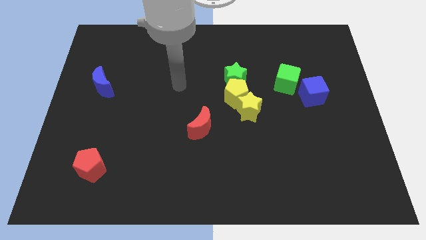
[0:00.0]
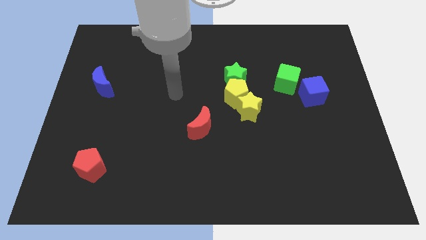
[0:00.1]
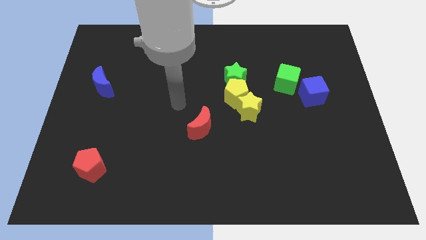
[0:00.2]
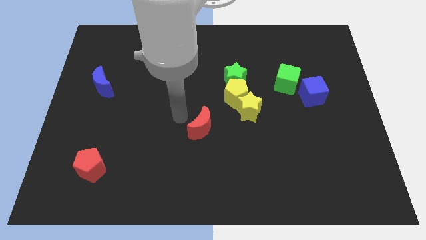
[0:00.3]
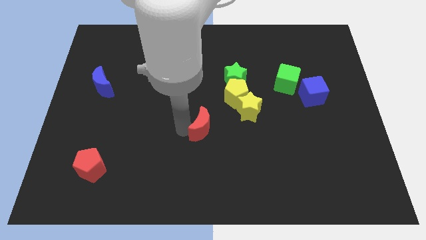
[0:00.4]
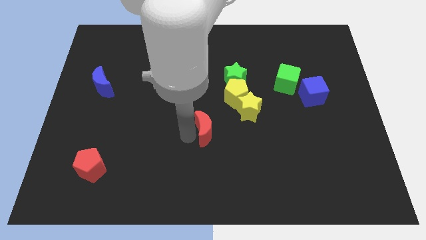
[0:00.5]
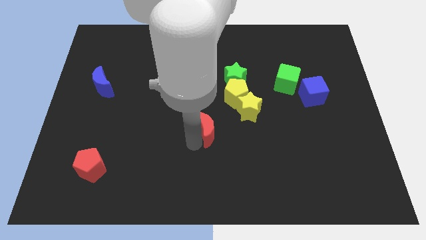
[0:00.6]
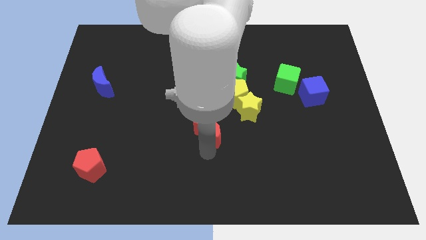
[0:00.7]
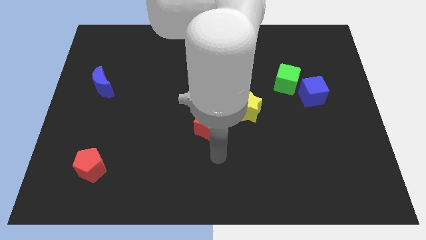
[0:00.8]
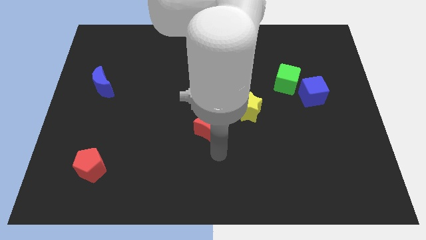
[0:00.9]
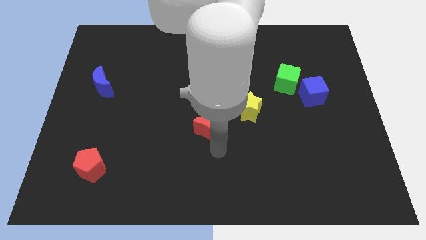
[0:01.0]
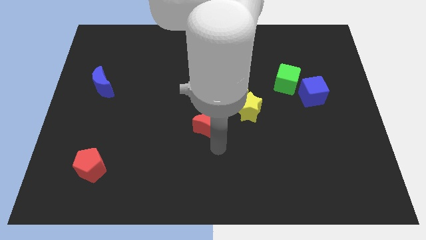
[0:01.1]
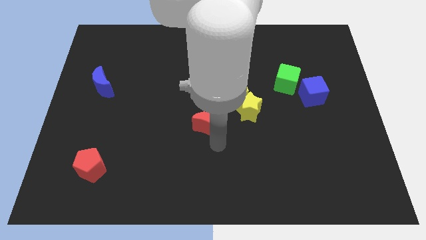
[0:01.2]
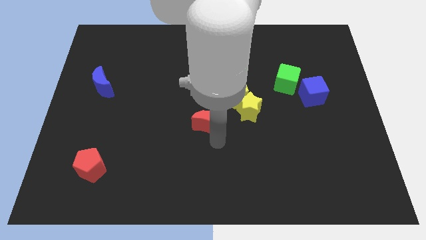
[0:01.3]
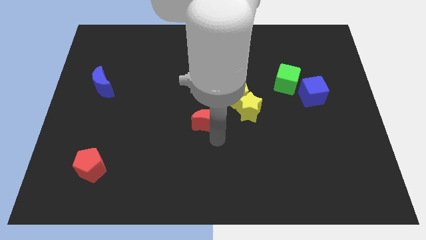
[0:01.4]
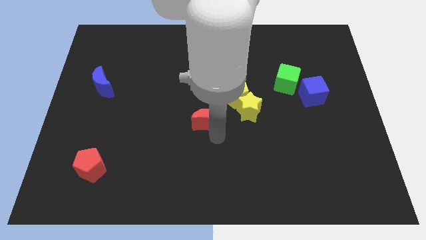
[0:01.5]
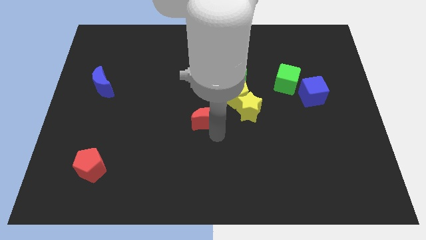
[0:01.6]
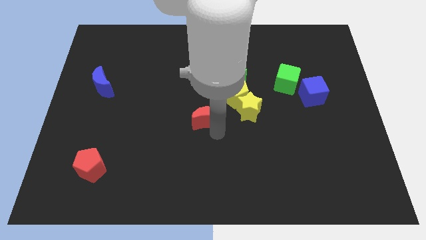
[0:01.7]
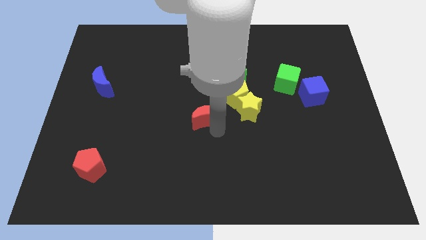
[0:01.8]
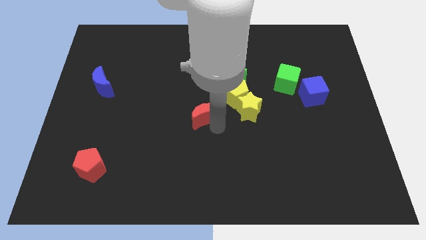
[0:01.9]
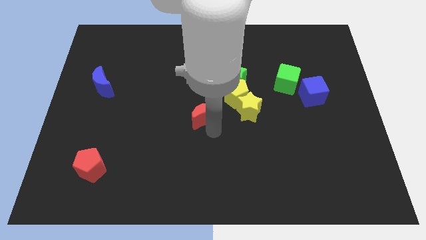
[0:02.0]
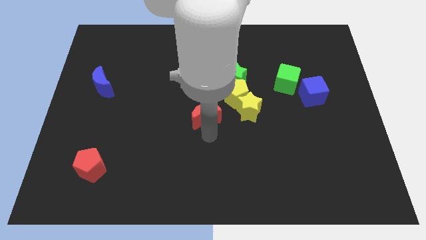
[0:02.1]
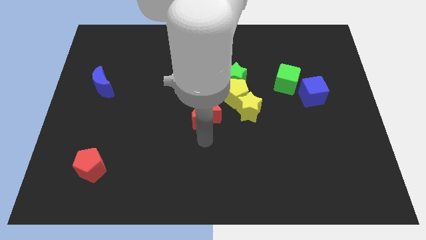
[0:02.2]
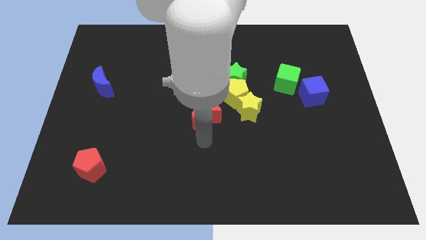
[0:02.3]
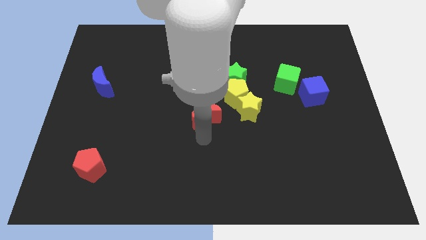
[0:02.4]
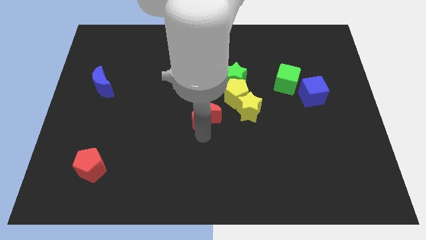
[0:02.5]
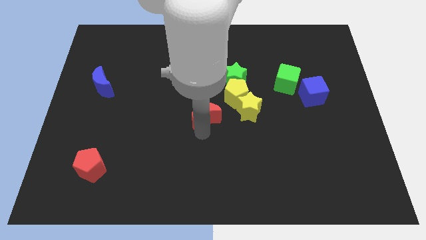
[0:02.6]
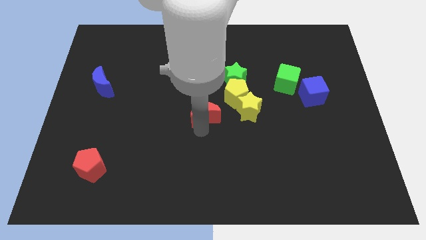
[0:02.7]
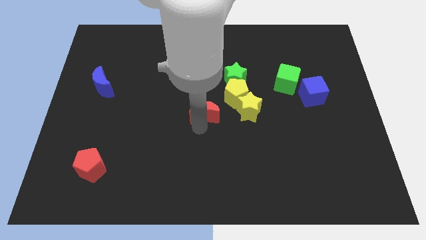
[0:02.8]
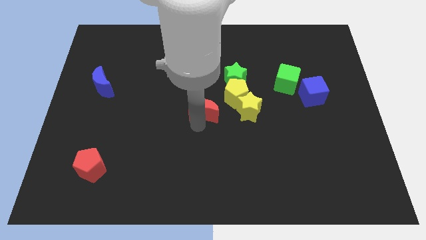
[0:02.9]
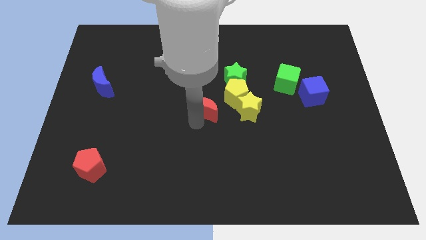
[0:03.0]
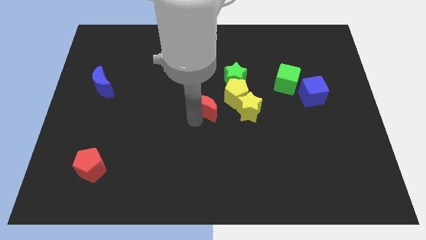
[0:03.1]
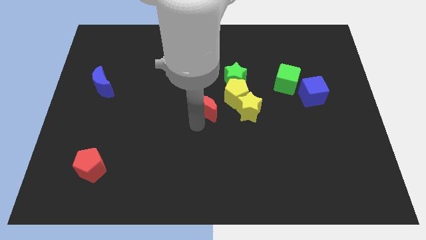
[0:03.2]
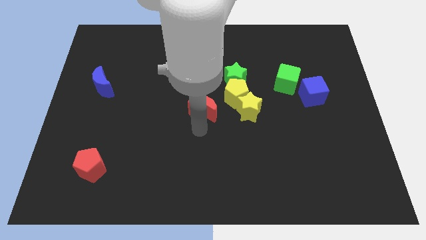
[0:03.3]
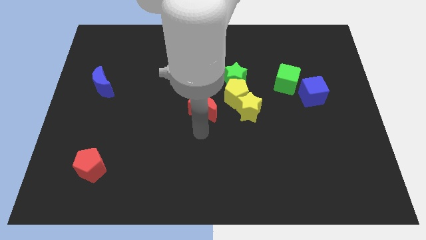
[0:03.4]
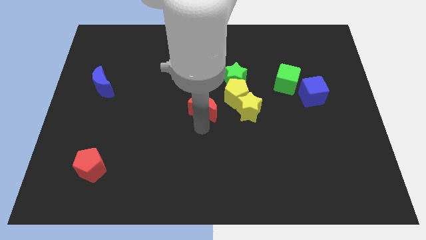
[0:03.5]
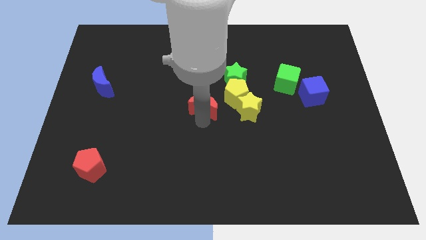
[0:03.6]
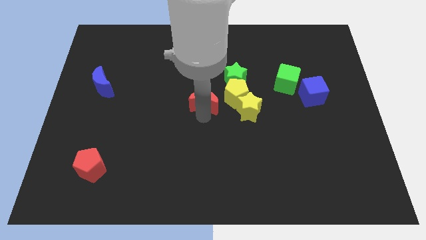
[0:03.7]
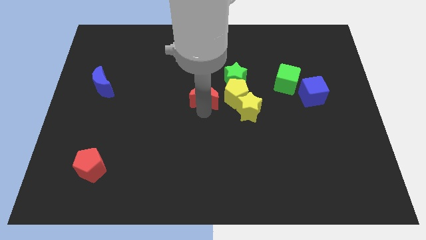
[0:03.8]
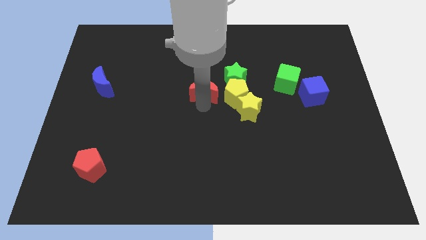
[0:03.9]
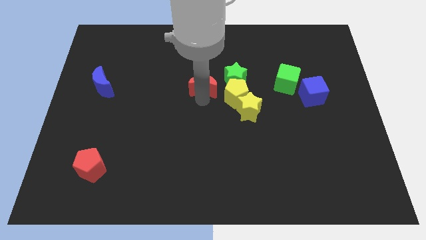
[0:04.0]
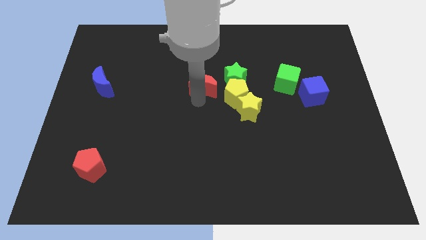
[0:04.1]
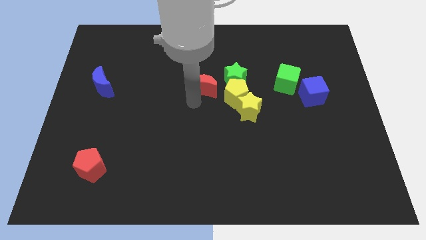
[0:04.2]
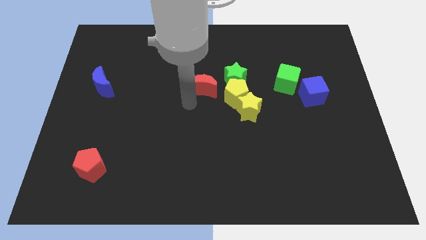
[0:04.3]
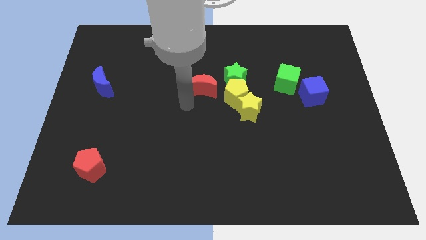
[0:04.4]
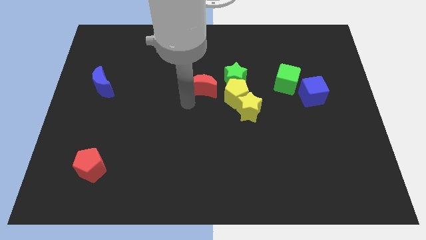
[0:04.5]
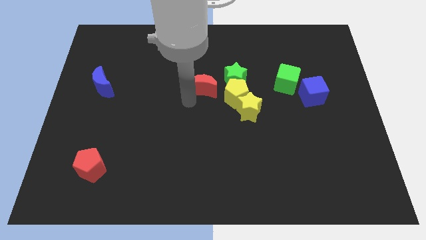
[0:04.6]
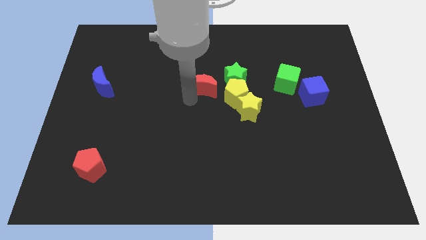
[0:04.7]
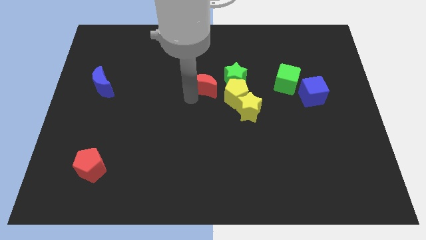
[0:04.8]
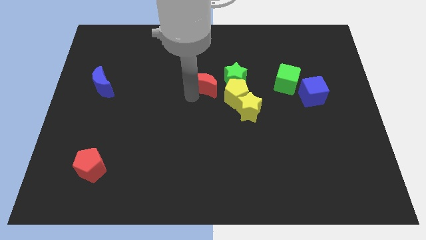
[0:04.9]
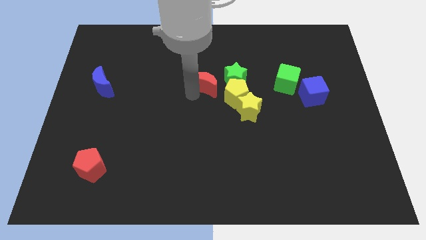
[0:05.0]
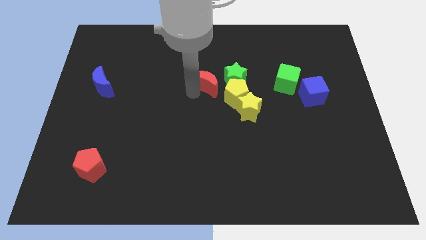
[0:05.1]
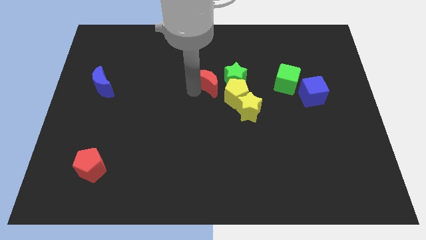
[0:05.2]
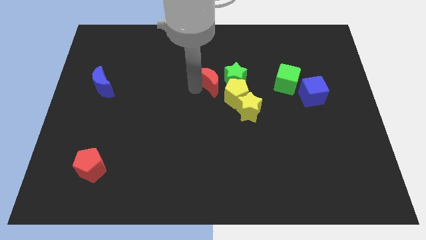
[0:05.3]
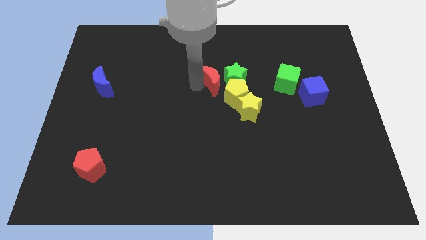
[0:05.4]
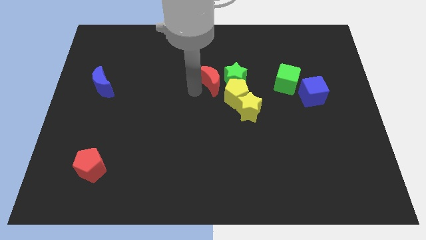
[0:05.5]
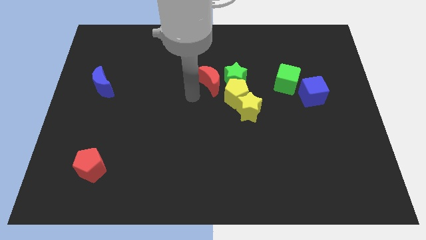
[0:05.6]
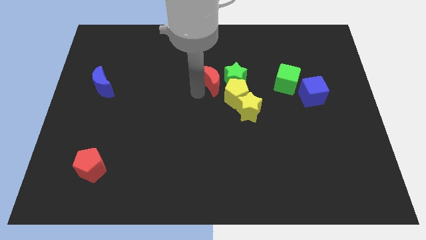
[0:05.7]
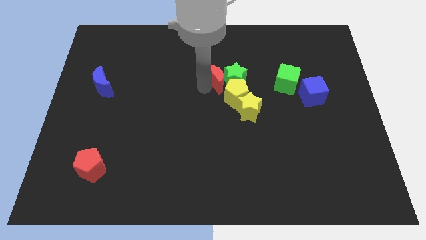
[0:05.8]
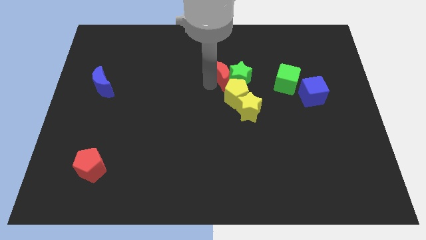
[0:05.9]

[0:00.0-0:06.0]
slide the red moon to the top of the yellow pentagon

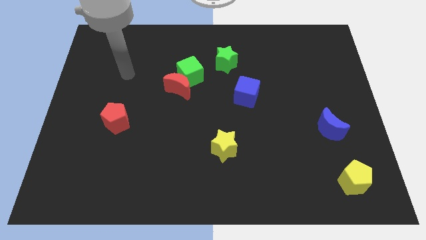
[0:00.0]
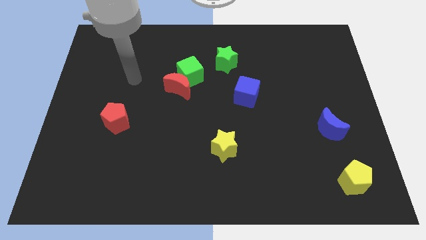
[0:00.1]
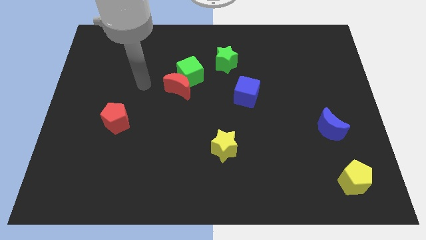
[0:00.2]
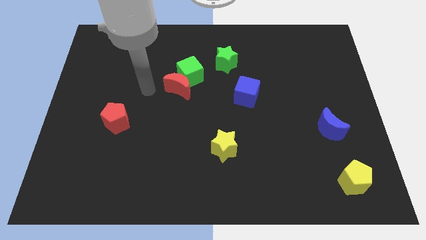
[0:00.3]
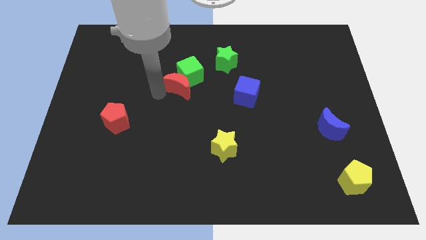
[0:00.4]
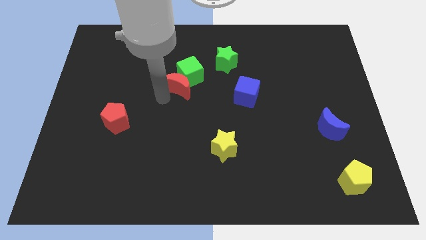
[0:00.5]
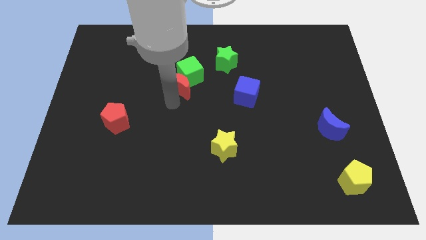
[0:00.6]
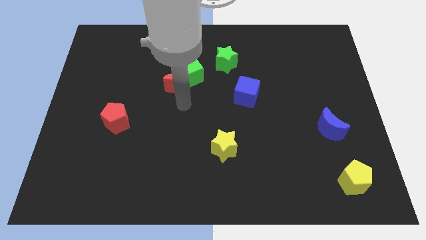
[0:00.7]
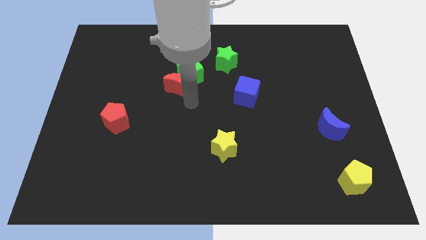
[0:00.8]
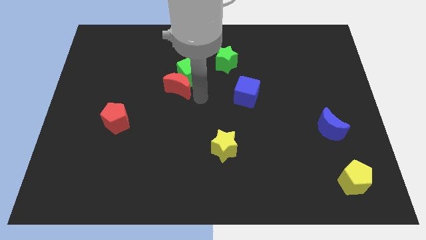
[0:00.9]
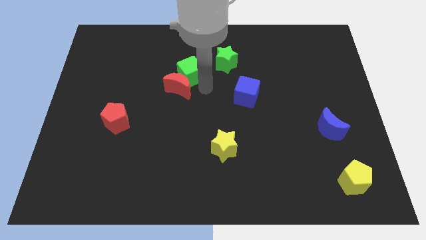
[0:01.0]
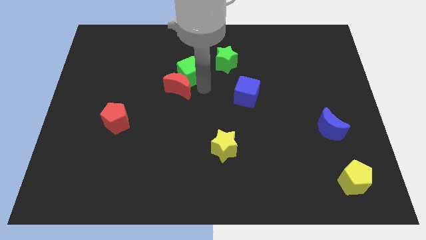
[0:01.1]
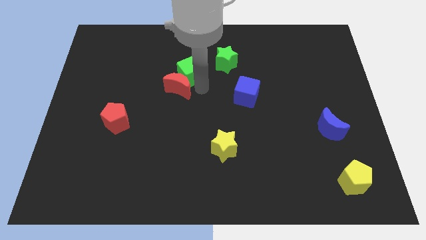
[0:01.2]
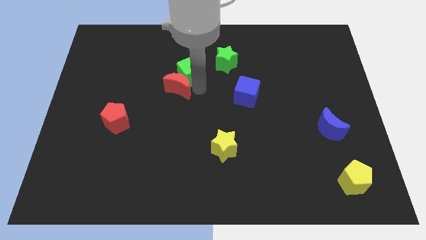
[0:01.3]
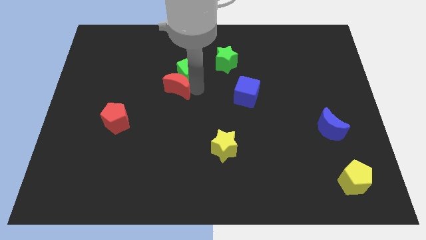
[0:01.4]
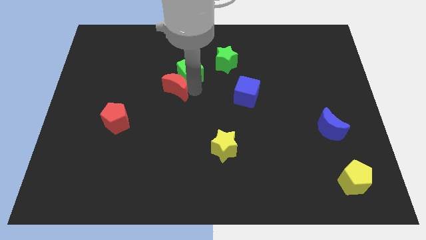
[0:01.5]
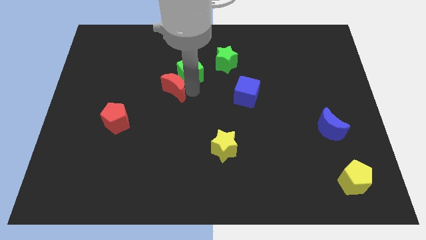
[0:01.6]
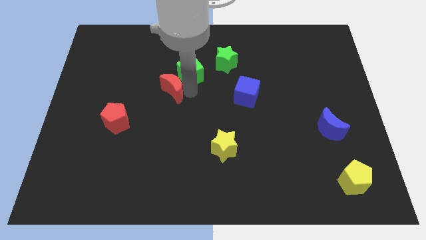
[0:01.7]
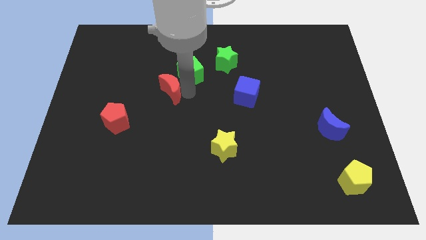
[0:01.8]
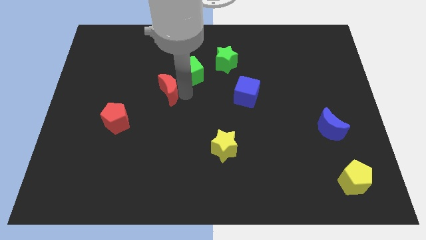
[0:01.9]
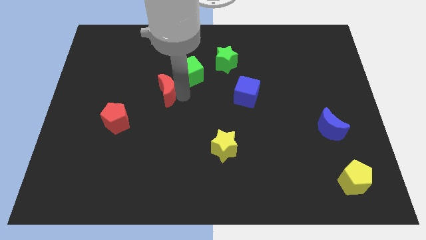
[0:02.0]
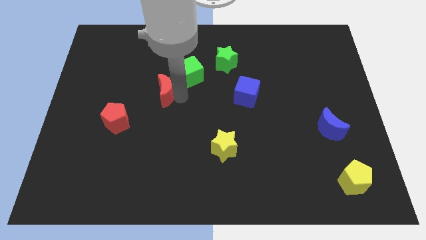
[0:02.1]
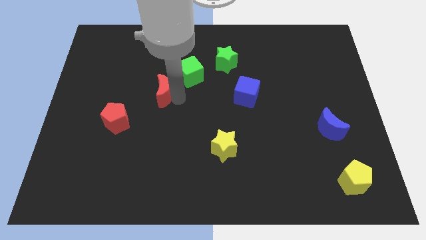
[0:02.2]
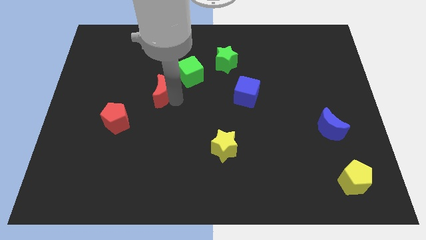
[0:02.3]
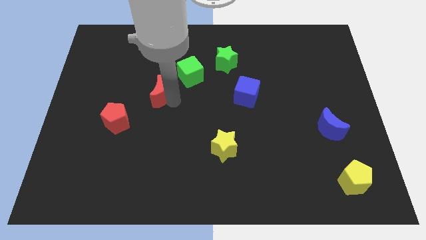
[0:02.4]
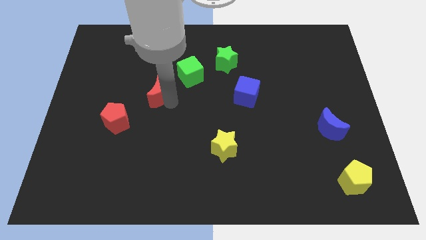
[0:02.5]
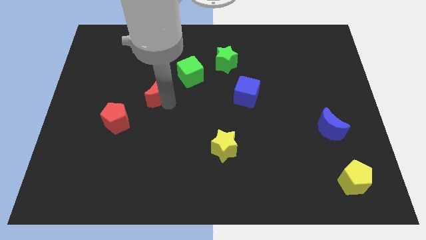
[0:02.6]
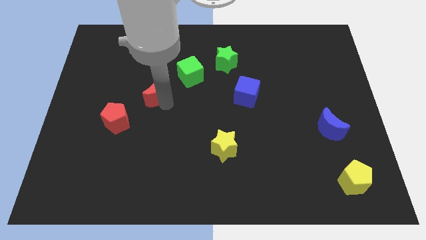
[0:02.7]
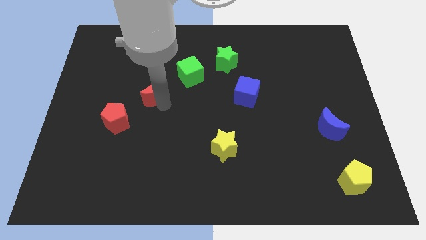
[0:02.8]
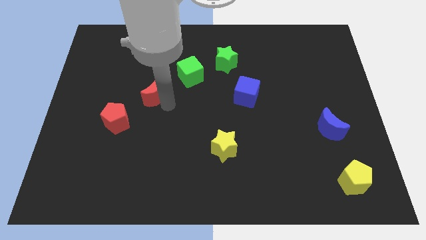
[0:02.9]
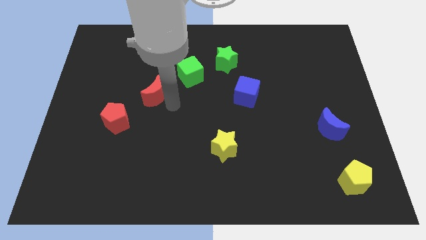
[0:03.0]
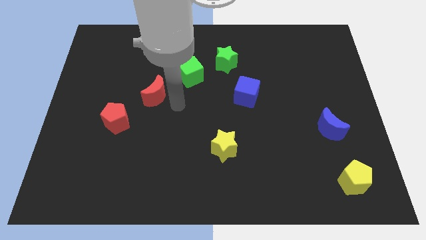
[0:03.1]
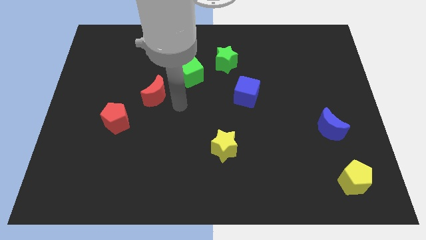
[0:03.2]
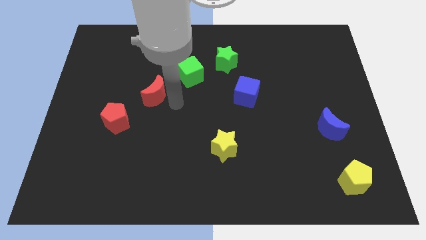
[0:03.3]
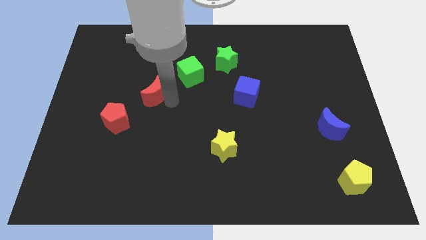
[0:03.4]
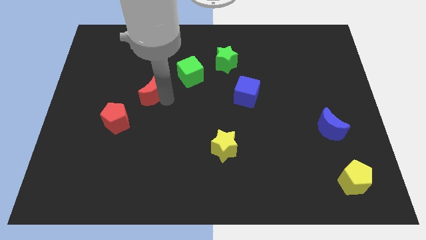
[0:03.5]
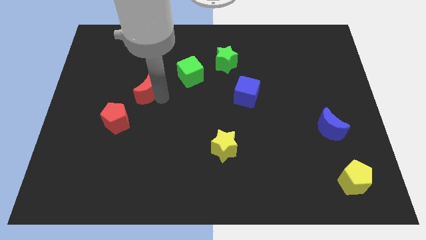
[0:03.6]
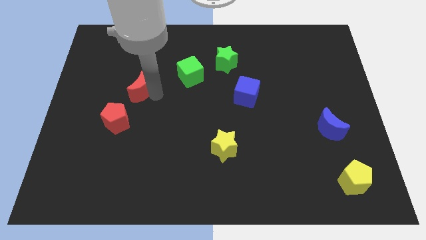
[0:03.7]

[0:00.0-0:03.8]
put the red moon to the top side of the red pentagon
